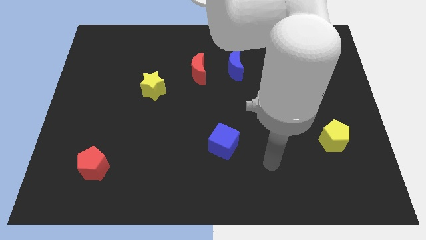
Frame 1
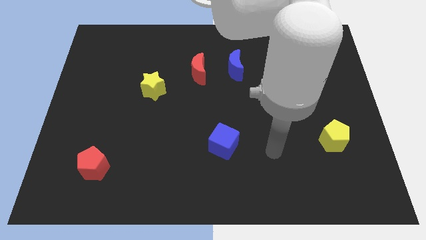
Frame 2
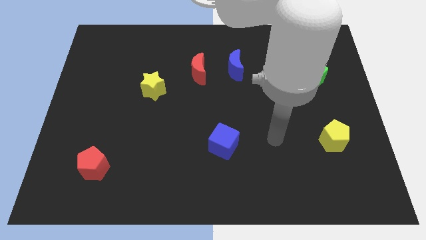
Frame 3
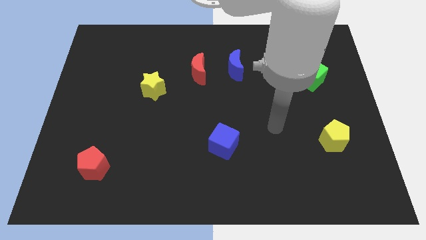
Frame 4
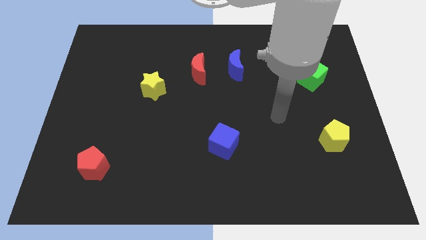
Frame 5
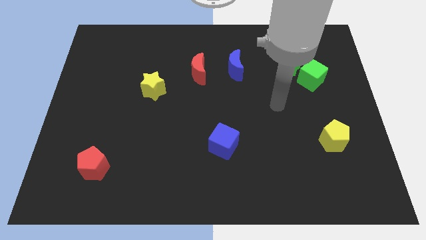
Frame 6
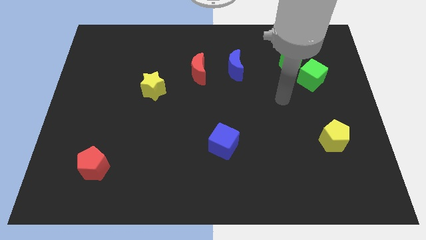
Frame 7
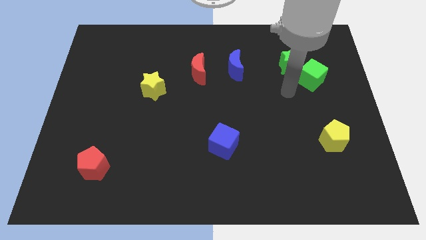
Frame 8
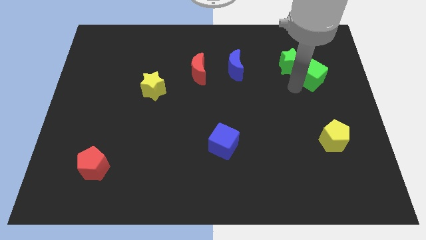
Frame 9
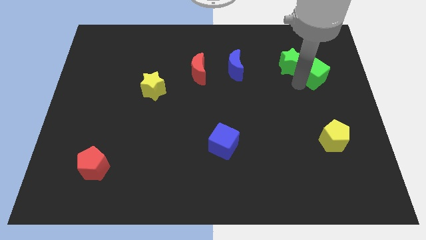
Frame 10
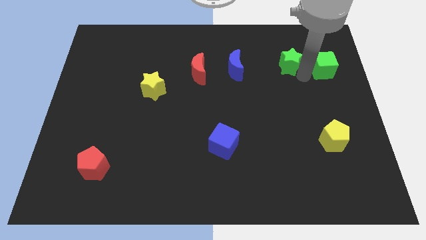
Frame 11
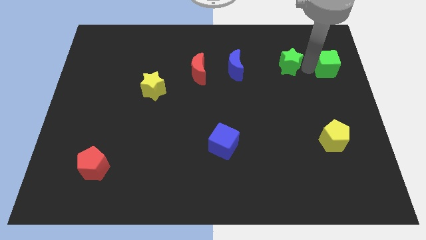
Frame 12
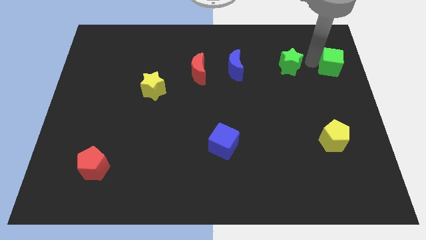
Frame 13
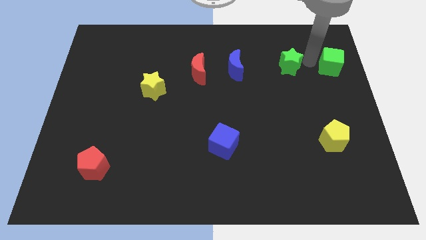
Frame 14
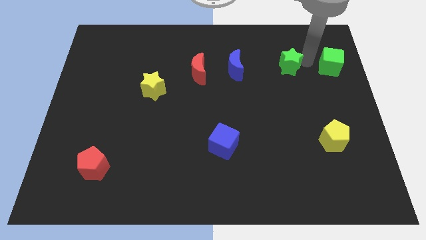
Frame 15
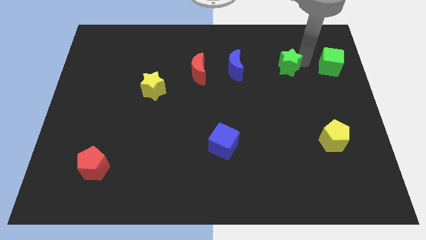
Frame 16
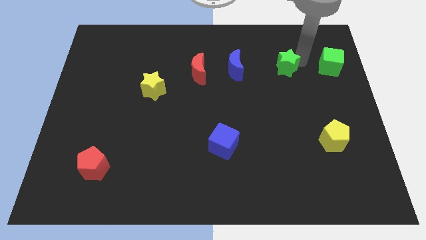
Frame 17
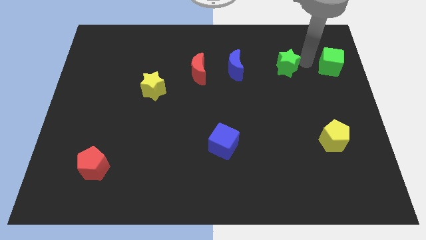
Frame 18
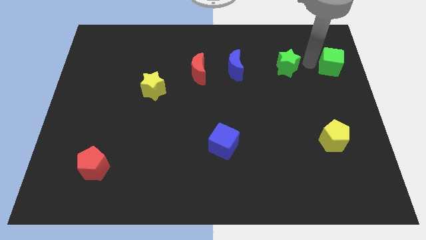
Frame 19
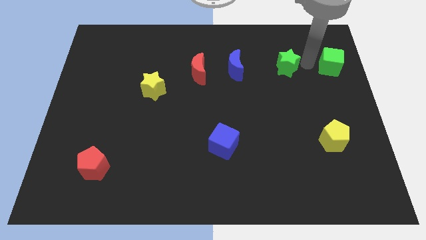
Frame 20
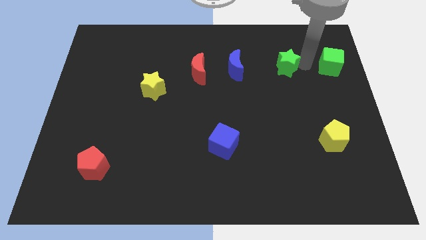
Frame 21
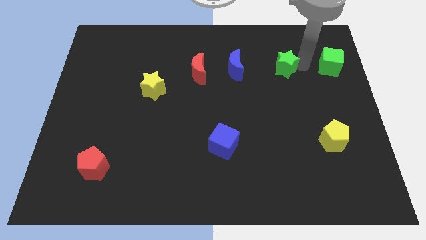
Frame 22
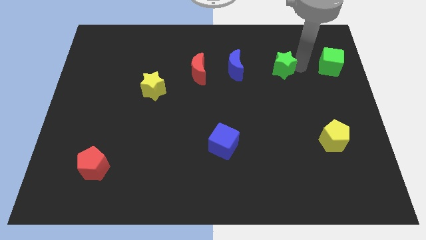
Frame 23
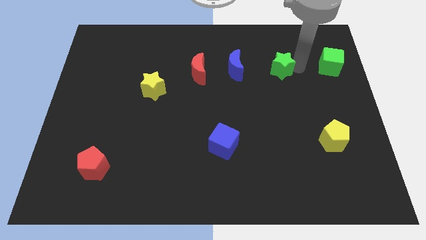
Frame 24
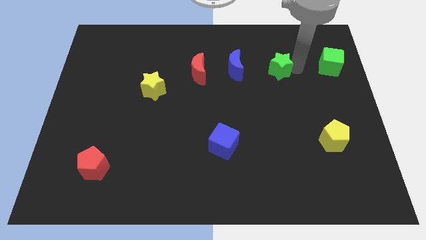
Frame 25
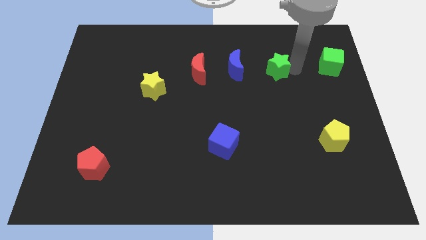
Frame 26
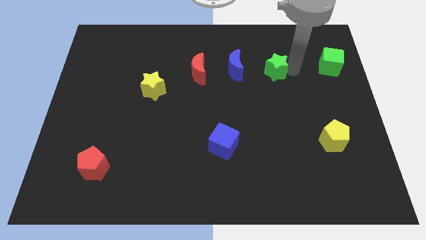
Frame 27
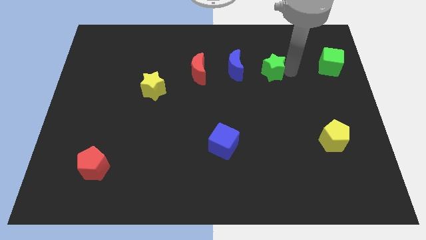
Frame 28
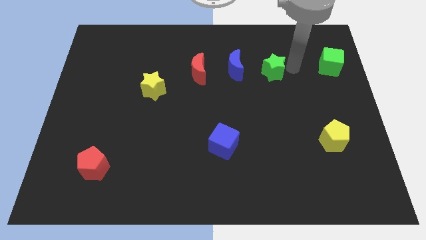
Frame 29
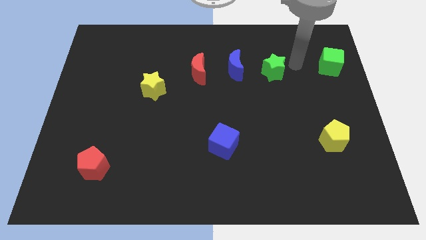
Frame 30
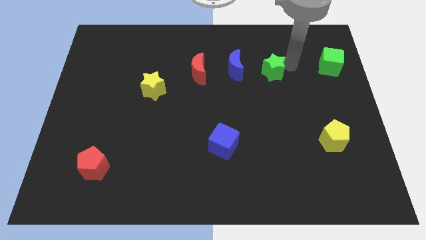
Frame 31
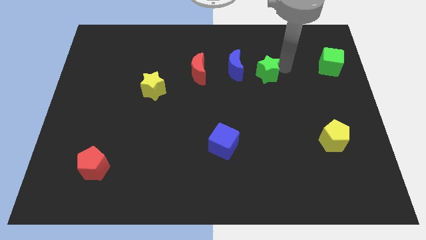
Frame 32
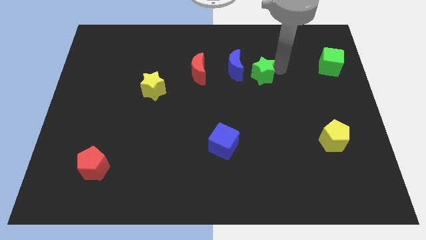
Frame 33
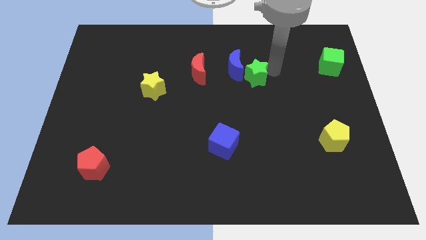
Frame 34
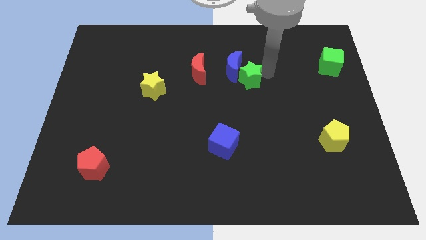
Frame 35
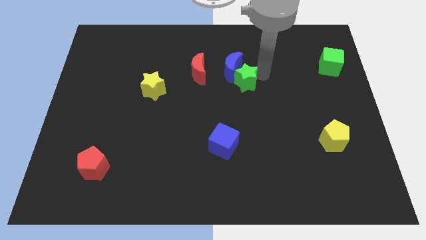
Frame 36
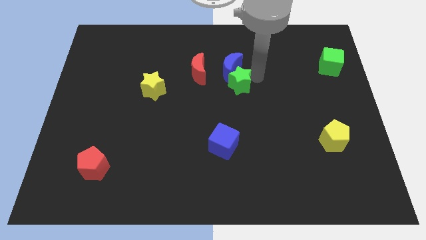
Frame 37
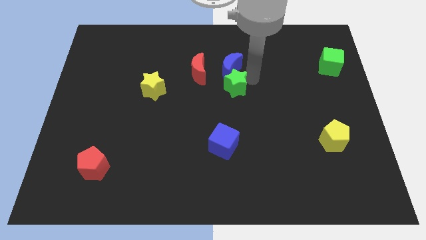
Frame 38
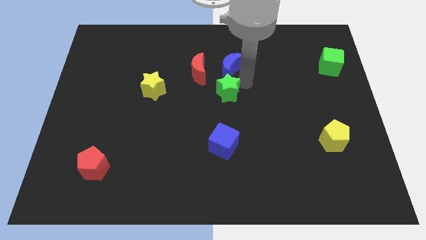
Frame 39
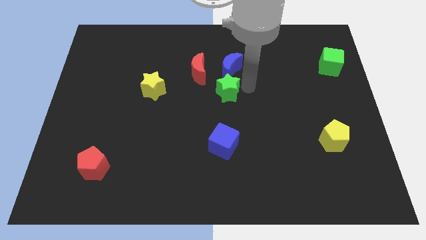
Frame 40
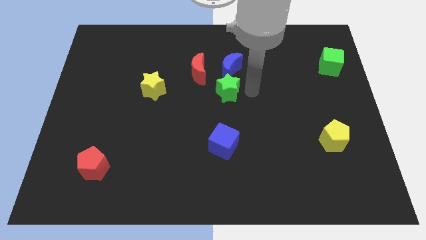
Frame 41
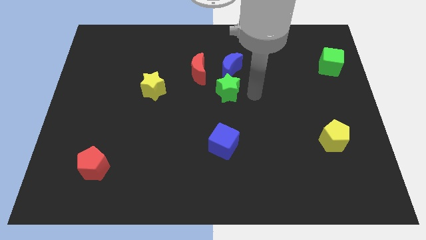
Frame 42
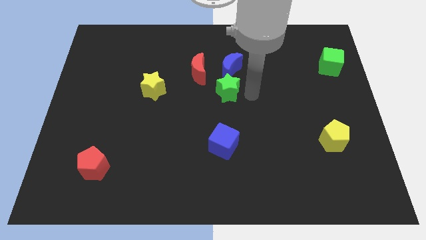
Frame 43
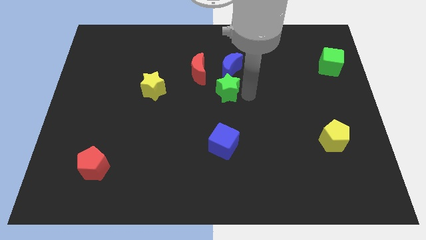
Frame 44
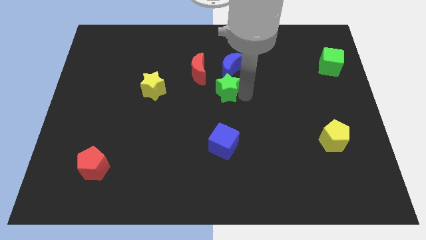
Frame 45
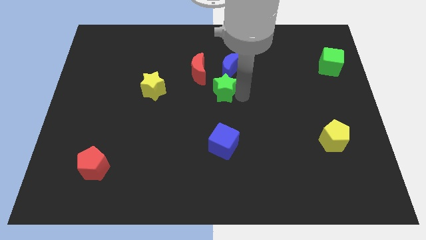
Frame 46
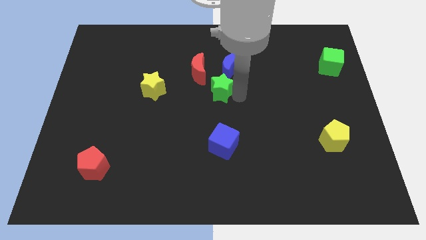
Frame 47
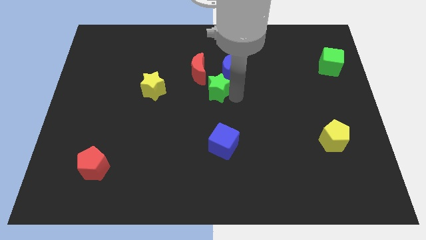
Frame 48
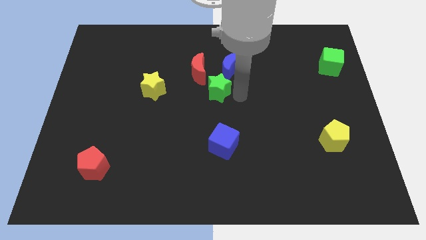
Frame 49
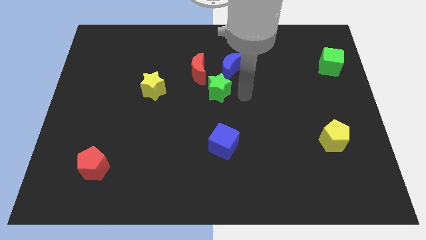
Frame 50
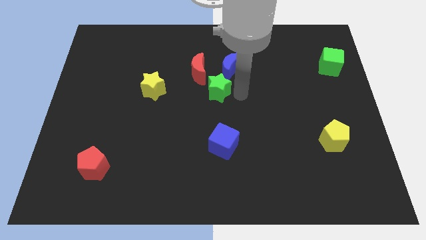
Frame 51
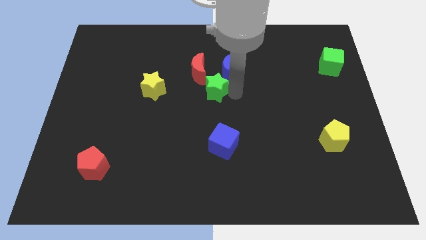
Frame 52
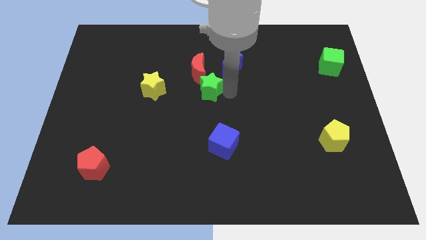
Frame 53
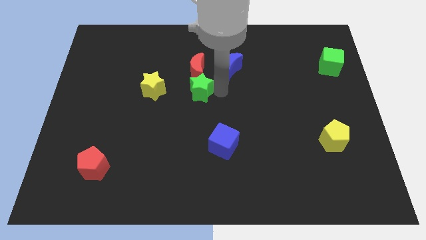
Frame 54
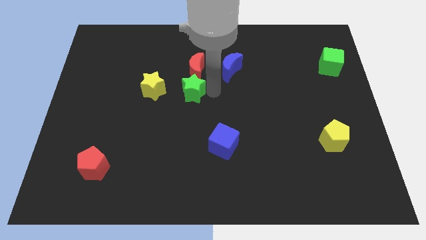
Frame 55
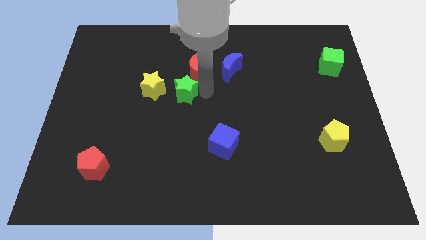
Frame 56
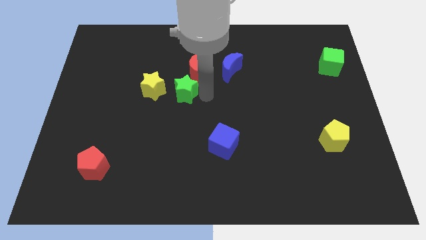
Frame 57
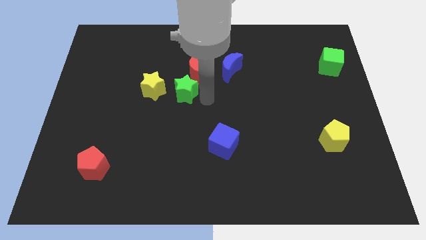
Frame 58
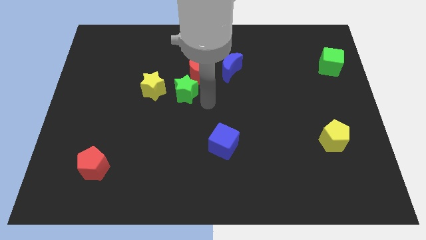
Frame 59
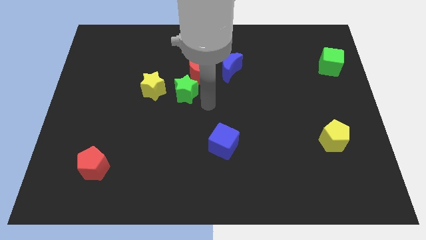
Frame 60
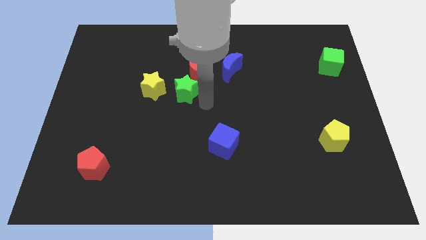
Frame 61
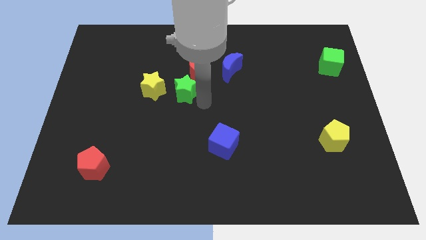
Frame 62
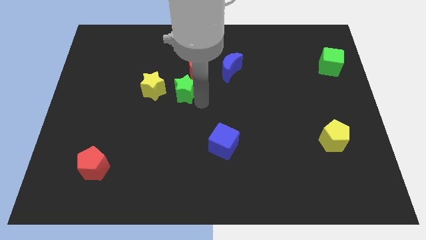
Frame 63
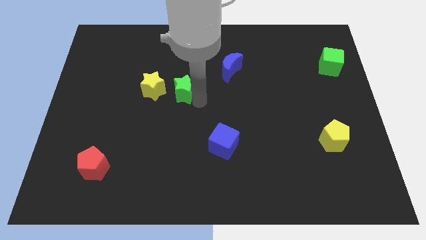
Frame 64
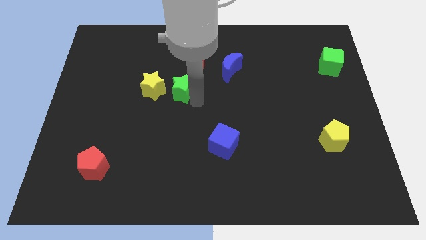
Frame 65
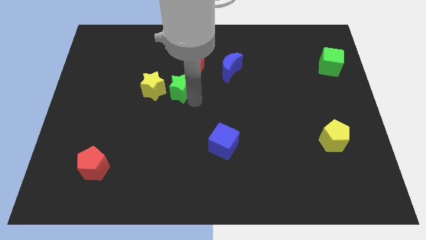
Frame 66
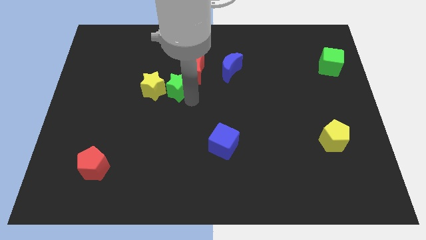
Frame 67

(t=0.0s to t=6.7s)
push the green star to the yellow star
